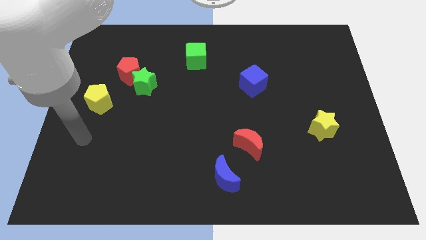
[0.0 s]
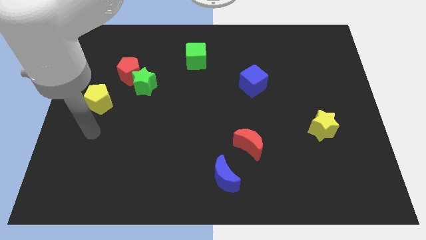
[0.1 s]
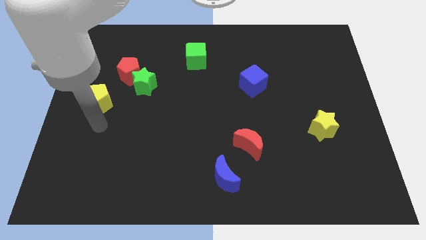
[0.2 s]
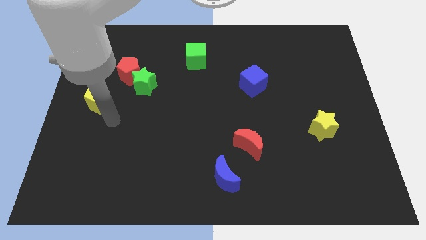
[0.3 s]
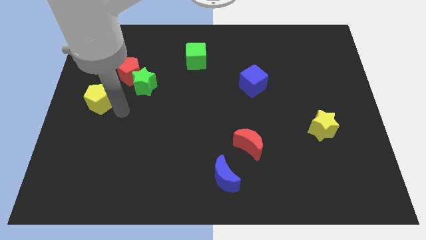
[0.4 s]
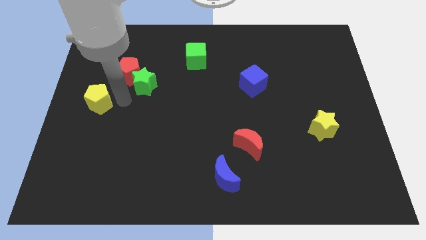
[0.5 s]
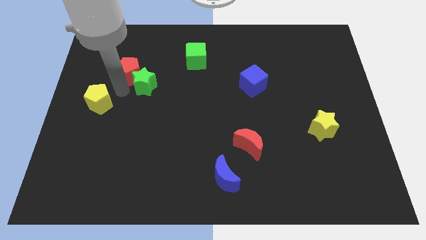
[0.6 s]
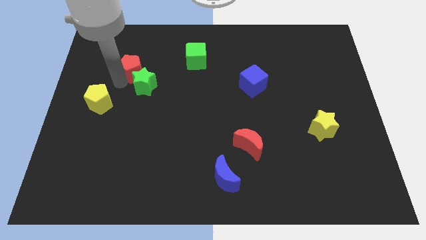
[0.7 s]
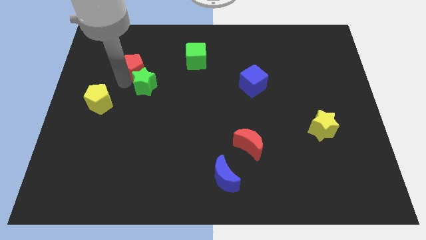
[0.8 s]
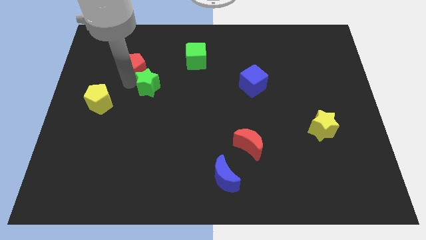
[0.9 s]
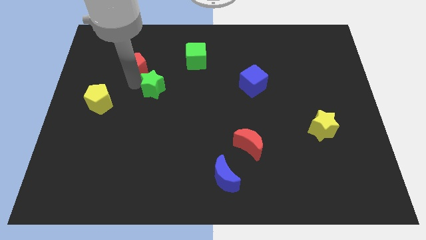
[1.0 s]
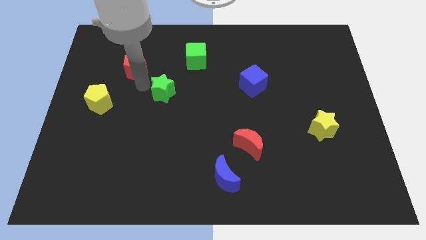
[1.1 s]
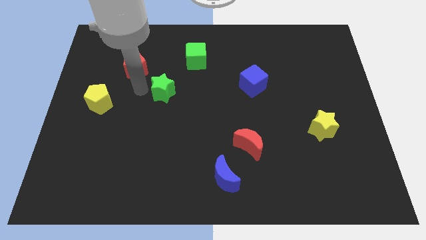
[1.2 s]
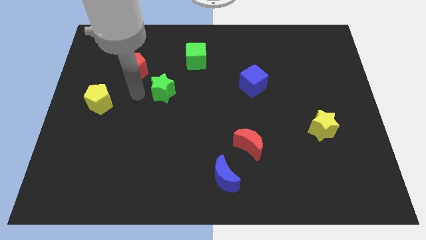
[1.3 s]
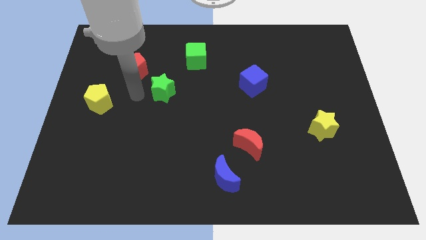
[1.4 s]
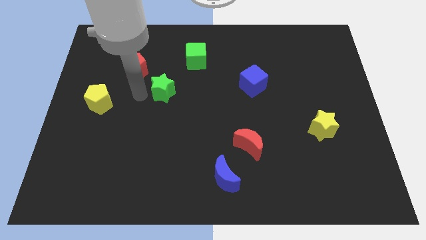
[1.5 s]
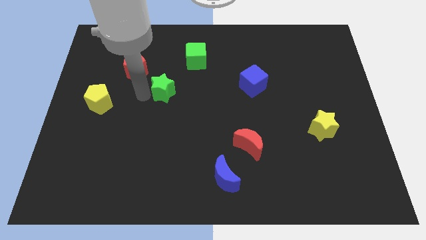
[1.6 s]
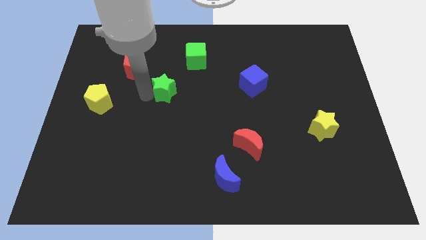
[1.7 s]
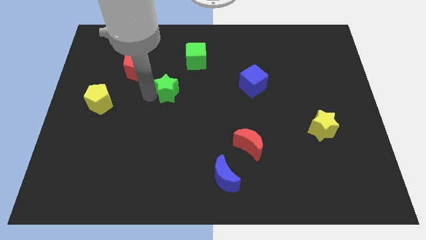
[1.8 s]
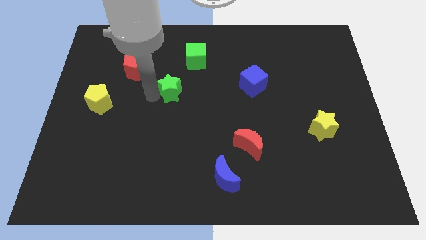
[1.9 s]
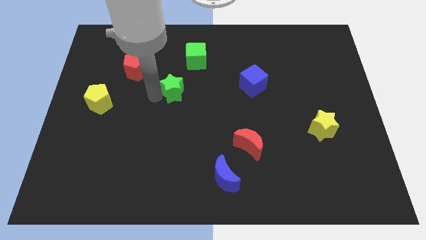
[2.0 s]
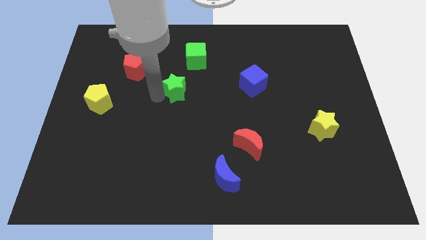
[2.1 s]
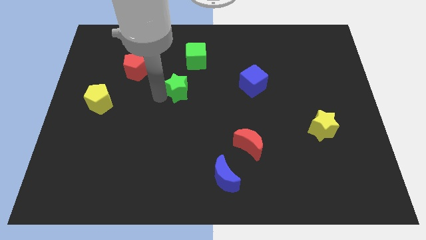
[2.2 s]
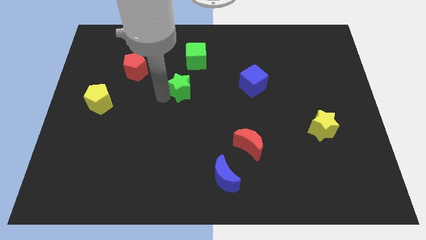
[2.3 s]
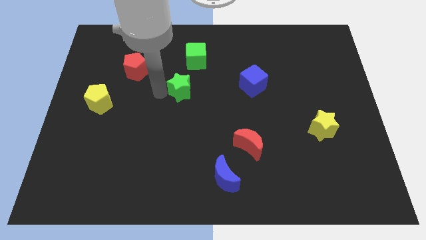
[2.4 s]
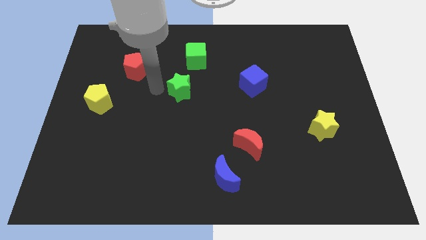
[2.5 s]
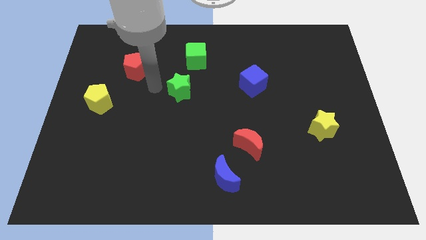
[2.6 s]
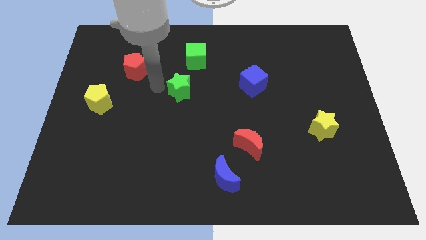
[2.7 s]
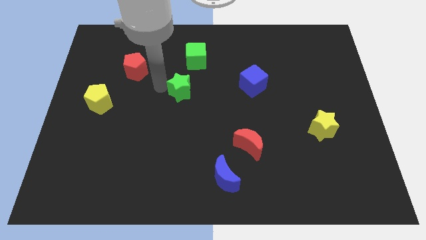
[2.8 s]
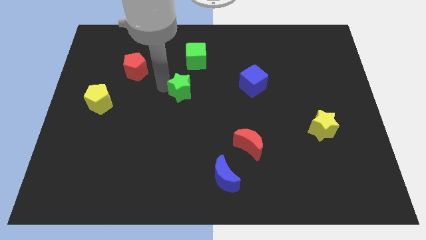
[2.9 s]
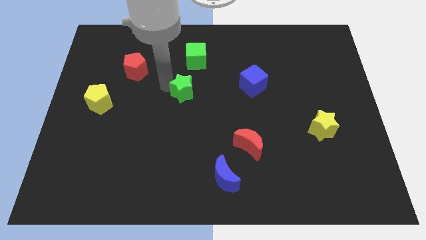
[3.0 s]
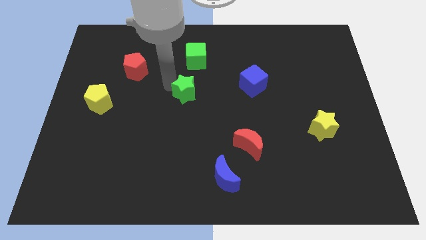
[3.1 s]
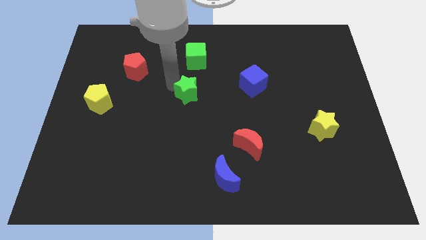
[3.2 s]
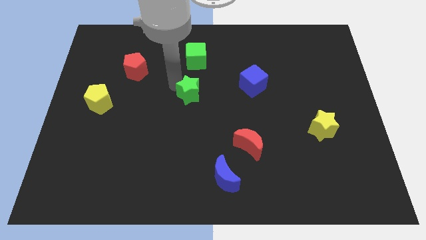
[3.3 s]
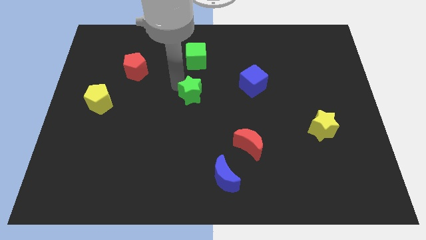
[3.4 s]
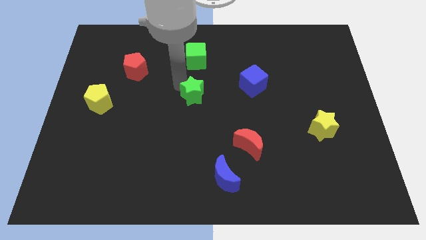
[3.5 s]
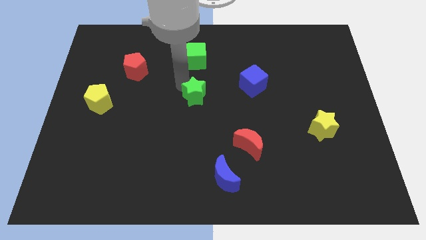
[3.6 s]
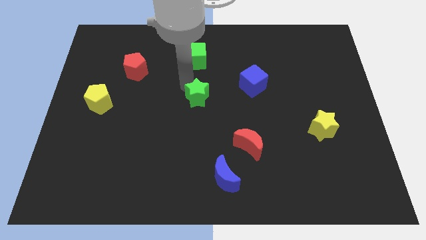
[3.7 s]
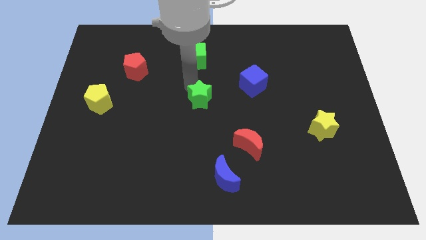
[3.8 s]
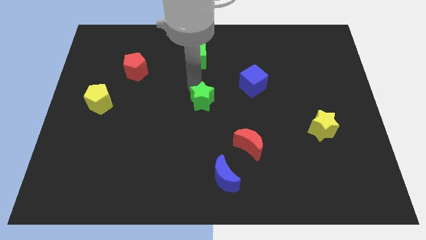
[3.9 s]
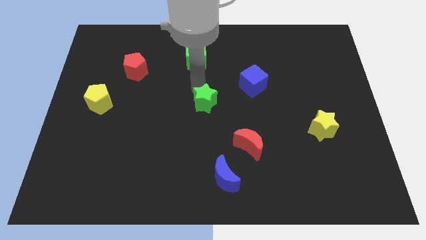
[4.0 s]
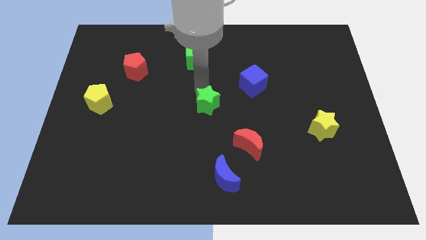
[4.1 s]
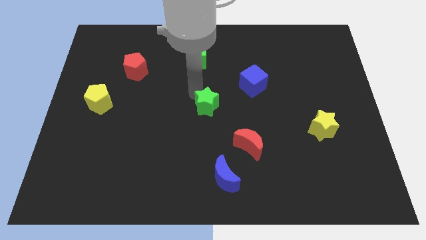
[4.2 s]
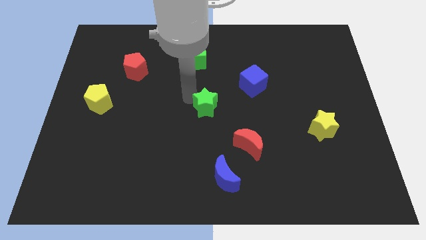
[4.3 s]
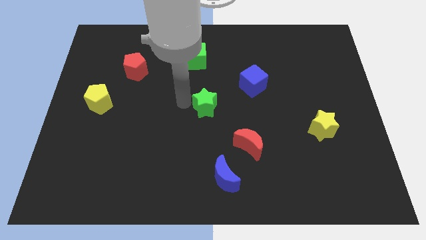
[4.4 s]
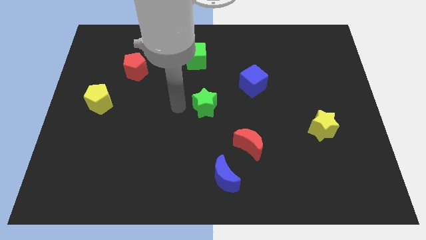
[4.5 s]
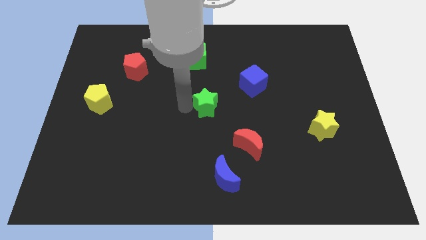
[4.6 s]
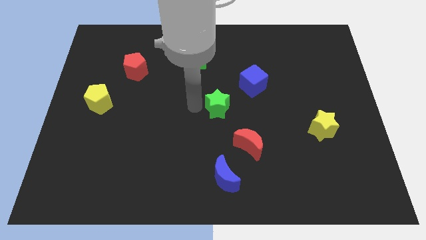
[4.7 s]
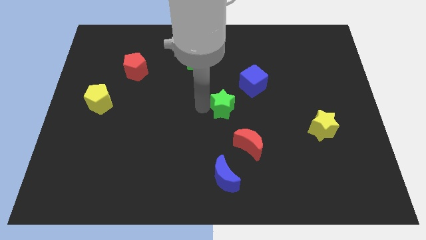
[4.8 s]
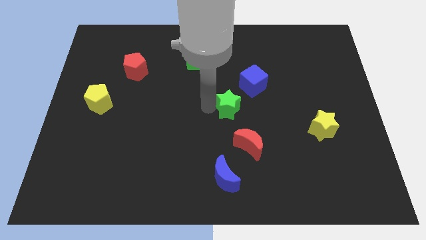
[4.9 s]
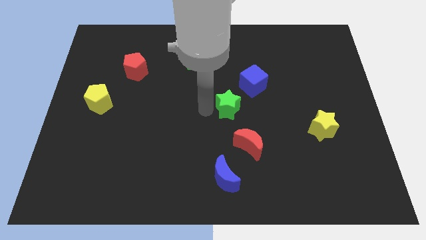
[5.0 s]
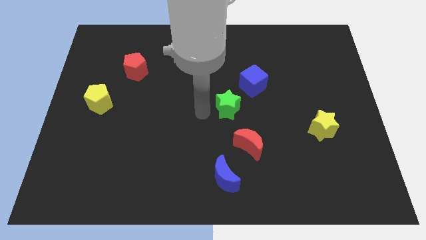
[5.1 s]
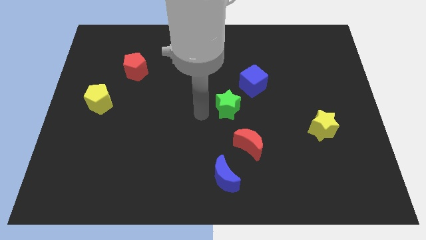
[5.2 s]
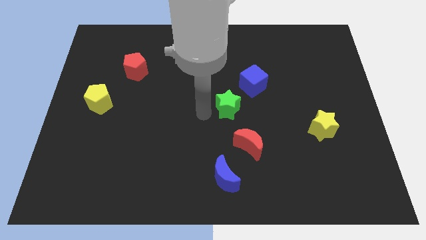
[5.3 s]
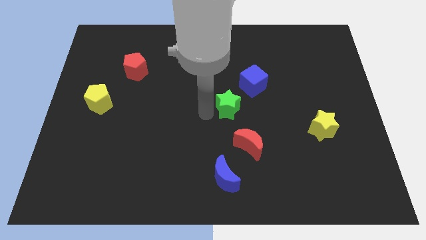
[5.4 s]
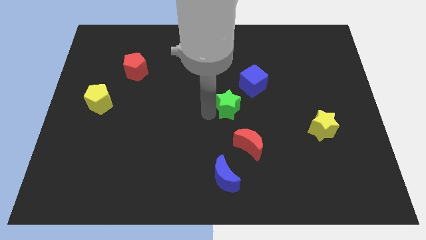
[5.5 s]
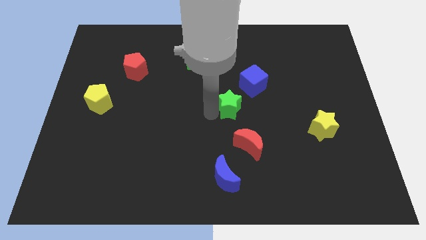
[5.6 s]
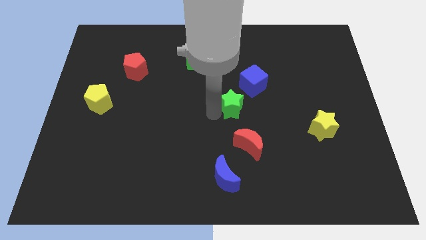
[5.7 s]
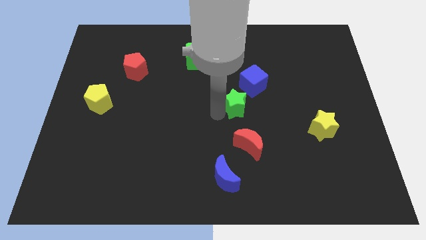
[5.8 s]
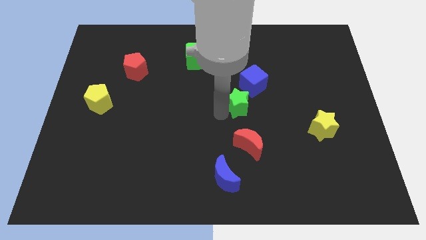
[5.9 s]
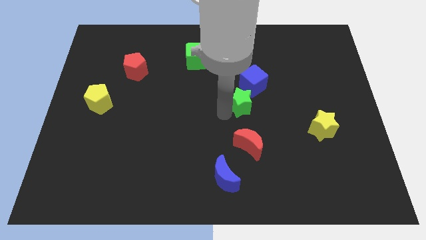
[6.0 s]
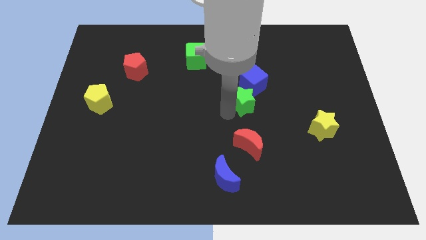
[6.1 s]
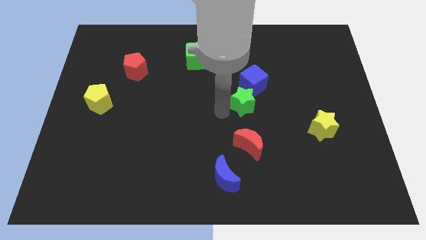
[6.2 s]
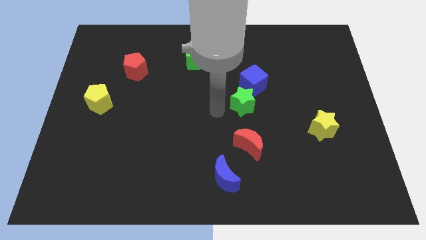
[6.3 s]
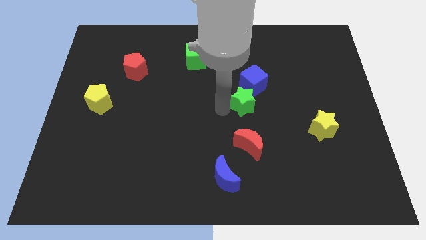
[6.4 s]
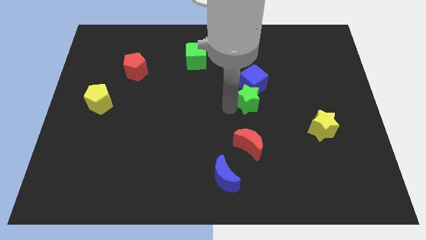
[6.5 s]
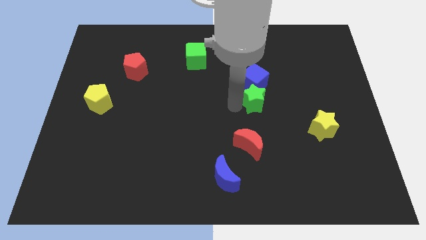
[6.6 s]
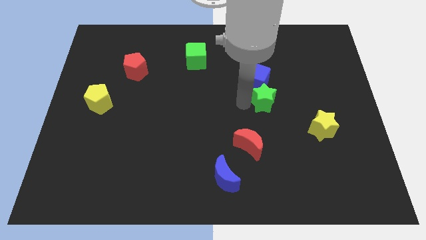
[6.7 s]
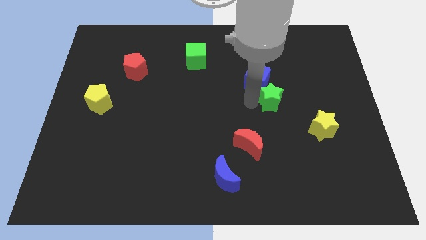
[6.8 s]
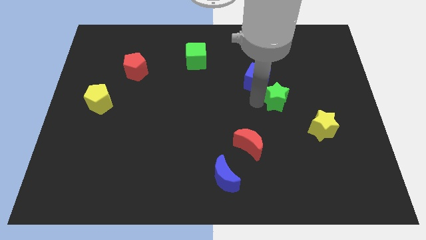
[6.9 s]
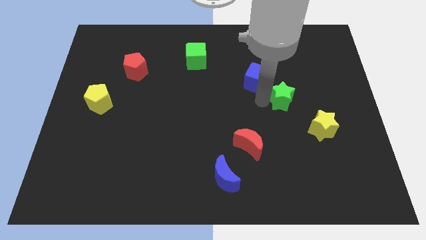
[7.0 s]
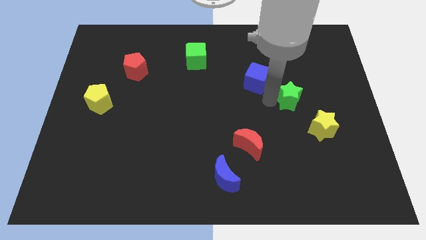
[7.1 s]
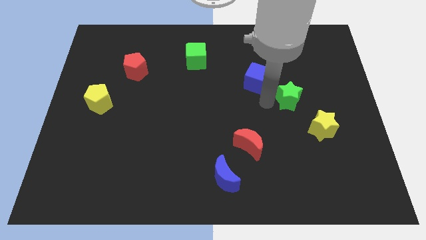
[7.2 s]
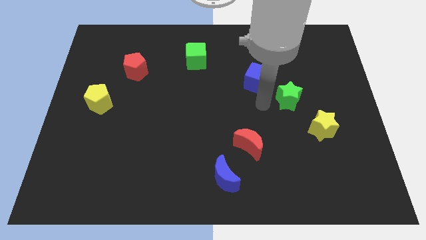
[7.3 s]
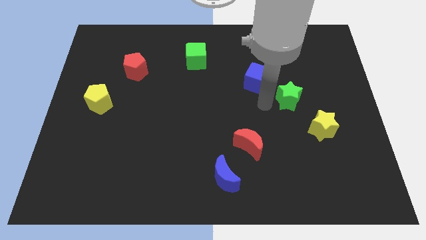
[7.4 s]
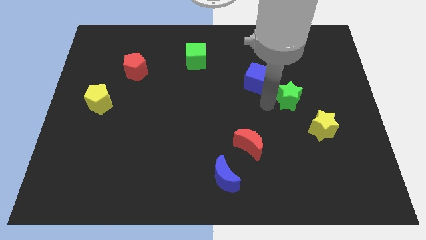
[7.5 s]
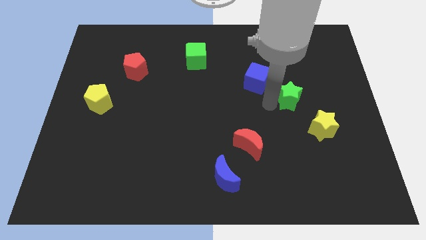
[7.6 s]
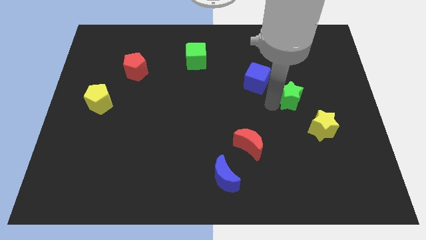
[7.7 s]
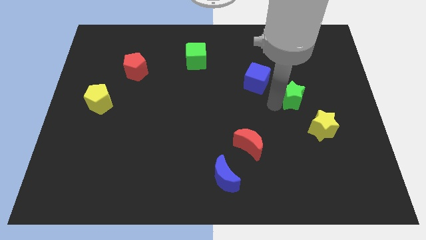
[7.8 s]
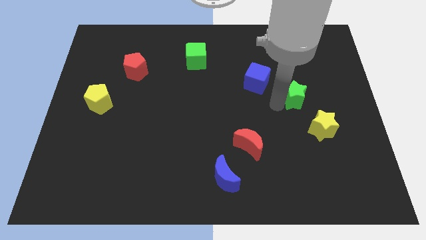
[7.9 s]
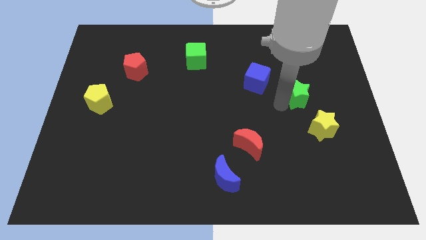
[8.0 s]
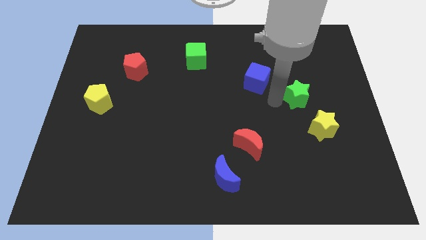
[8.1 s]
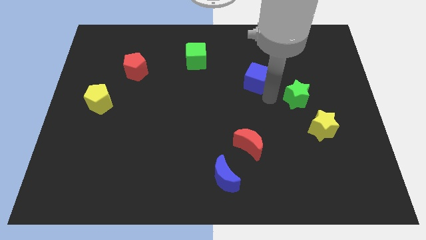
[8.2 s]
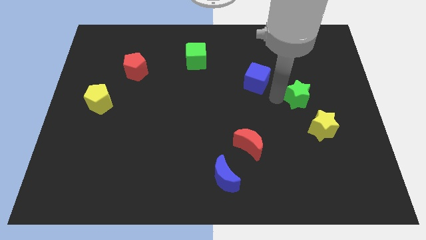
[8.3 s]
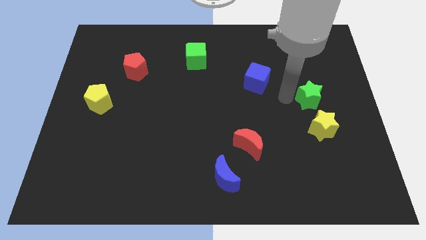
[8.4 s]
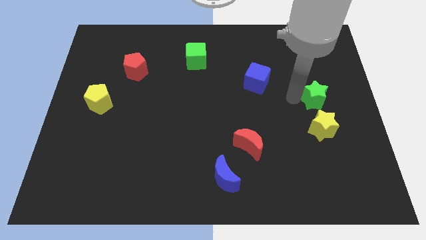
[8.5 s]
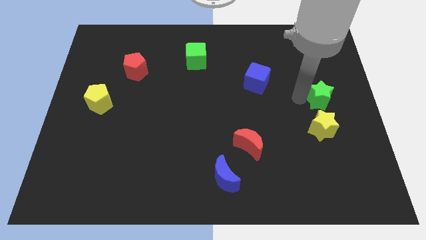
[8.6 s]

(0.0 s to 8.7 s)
push the green star to the right side
